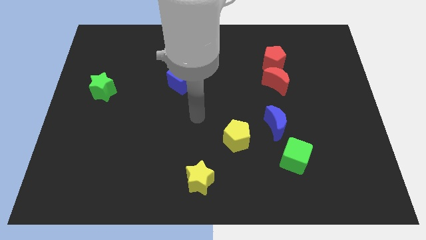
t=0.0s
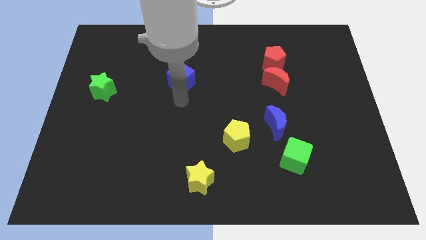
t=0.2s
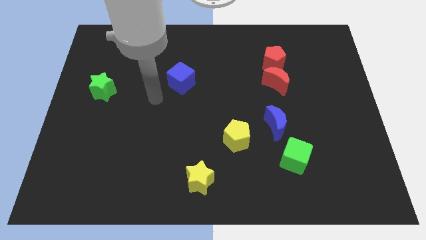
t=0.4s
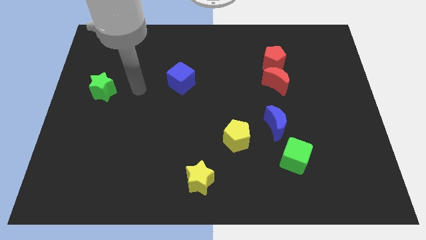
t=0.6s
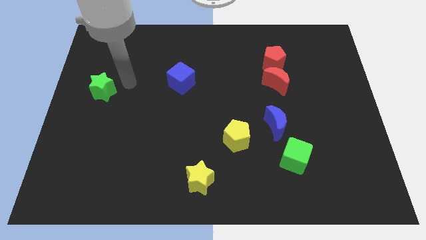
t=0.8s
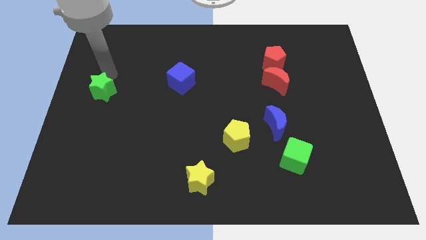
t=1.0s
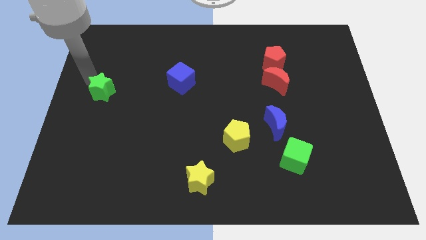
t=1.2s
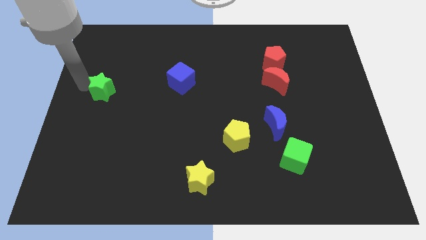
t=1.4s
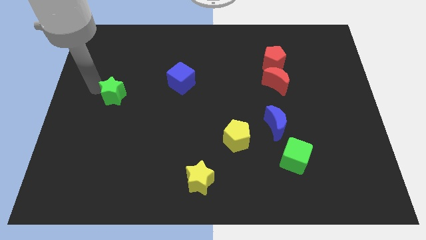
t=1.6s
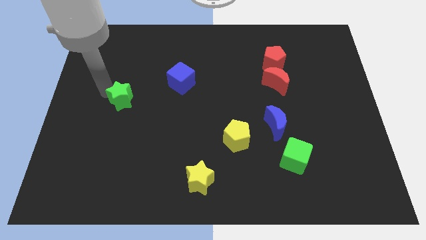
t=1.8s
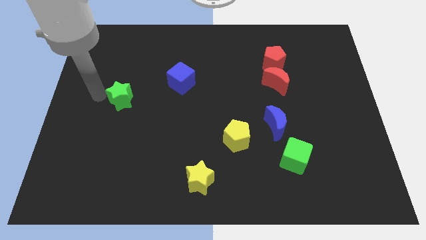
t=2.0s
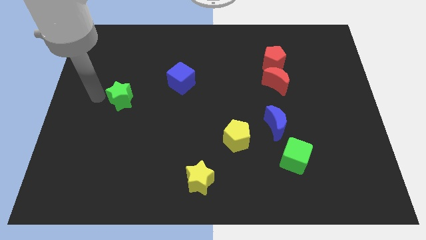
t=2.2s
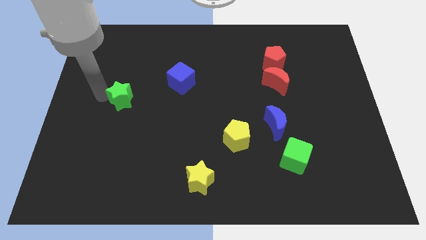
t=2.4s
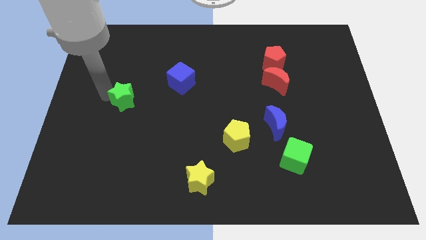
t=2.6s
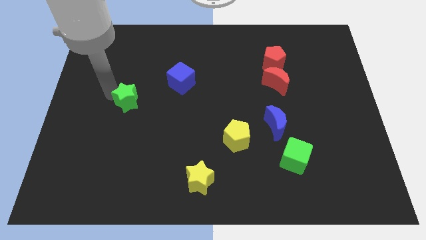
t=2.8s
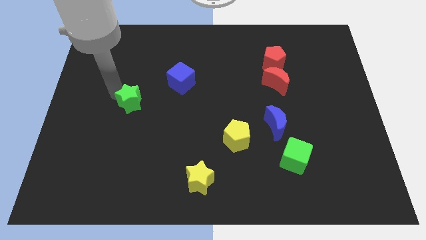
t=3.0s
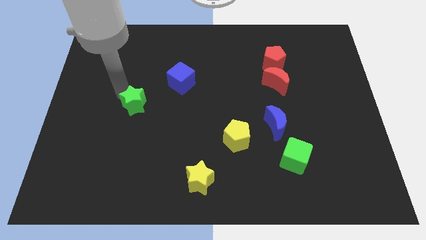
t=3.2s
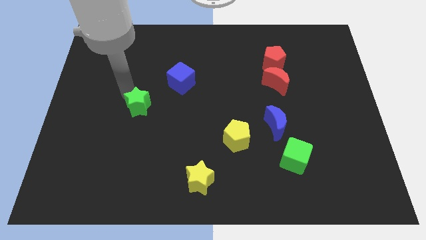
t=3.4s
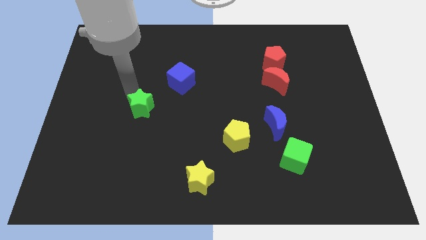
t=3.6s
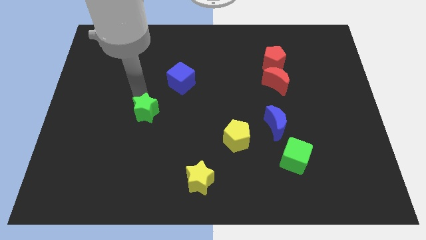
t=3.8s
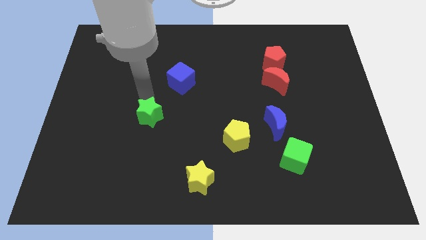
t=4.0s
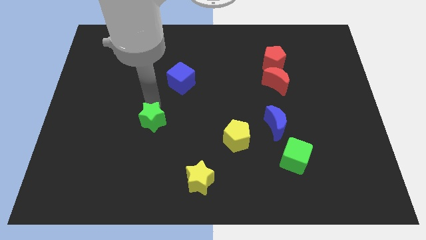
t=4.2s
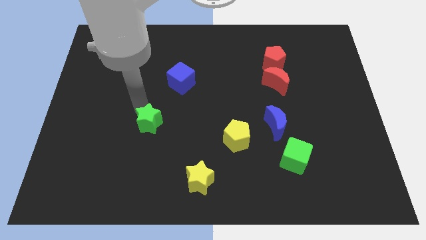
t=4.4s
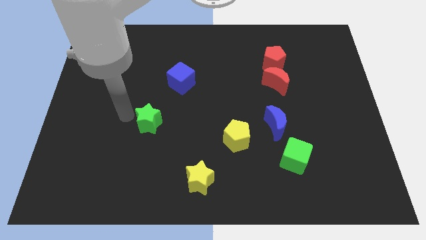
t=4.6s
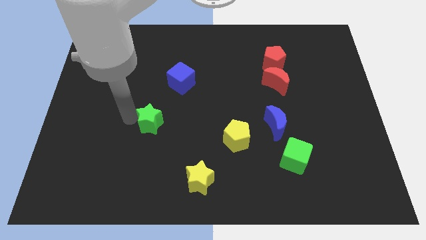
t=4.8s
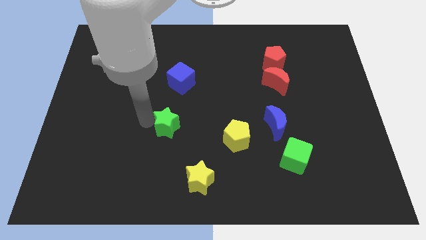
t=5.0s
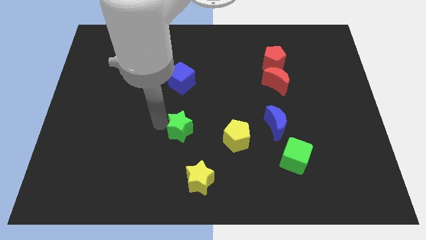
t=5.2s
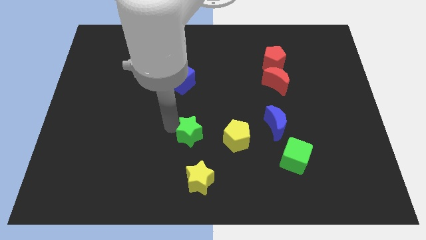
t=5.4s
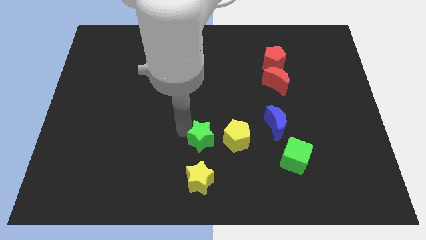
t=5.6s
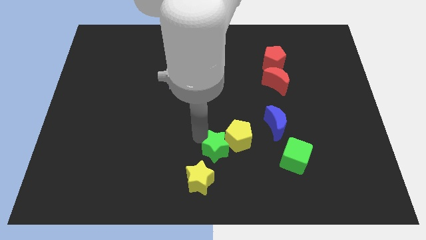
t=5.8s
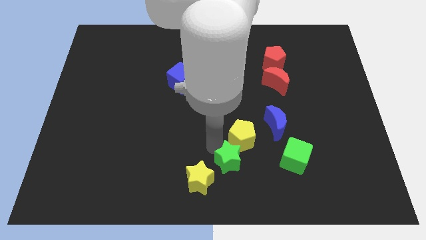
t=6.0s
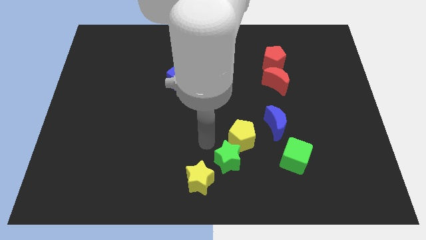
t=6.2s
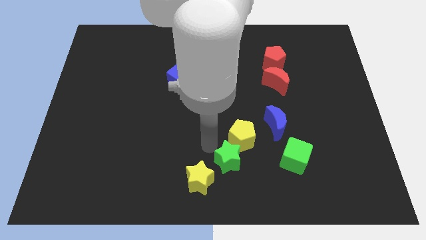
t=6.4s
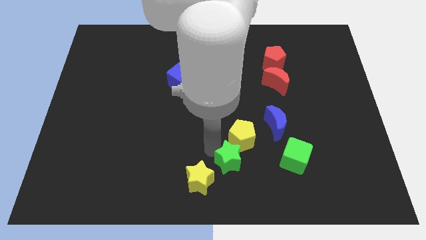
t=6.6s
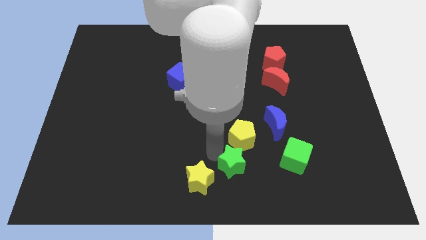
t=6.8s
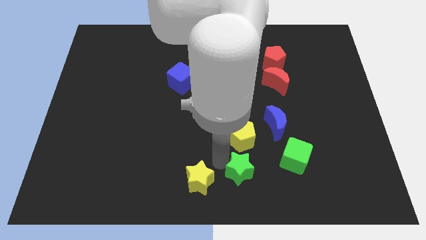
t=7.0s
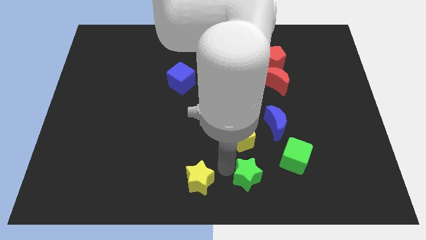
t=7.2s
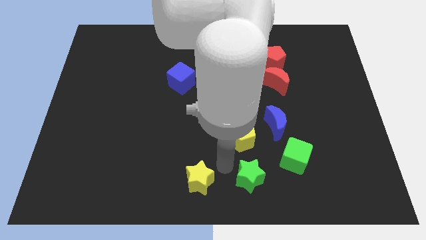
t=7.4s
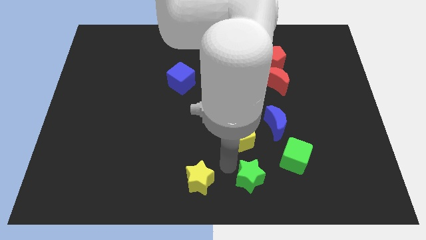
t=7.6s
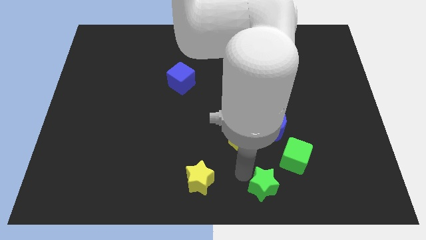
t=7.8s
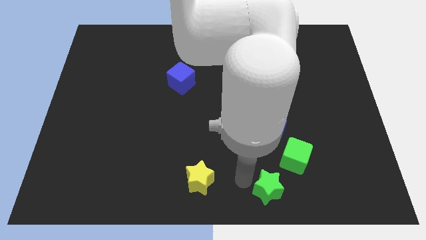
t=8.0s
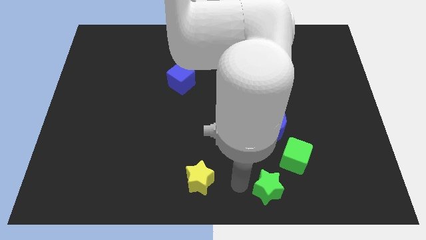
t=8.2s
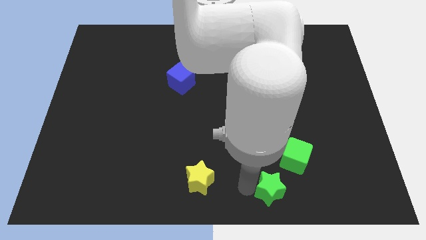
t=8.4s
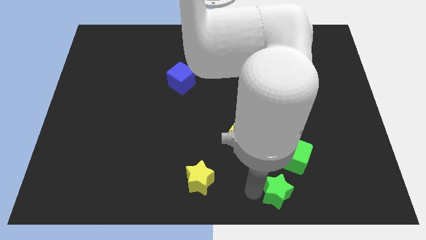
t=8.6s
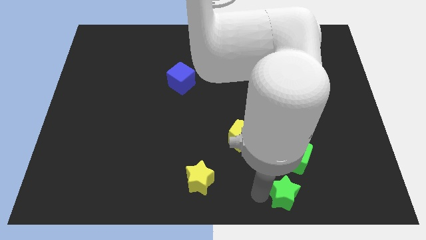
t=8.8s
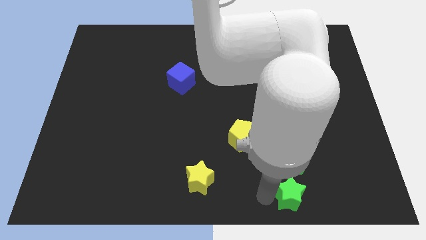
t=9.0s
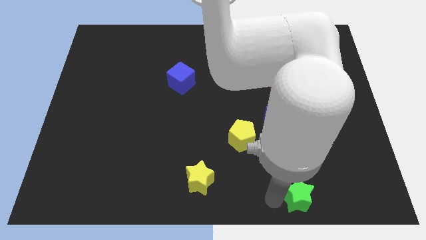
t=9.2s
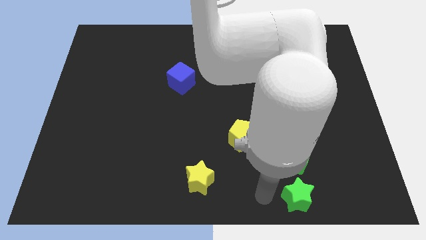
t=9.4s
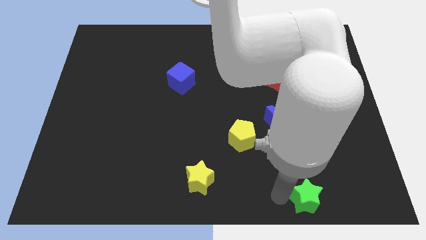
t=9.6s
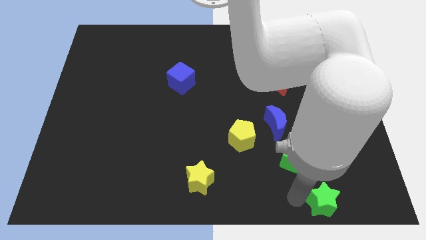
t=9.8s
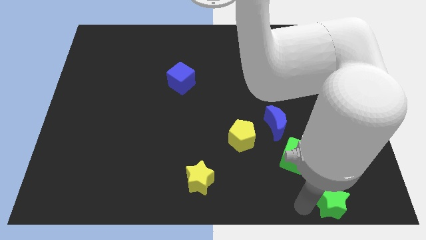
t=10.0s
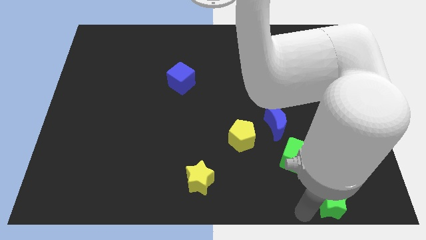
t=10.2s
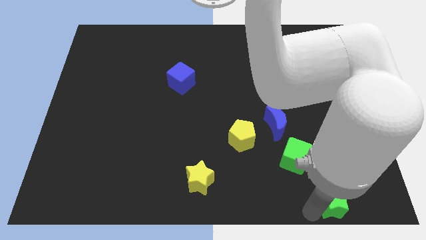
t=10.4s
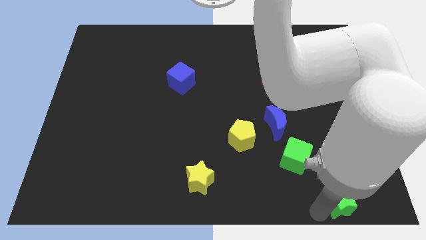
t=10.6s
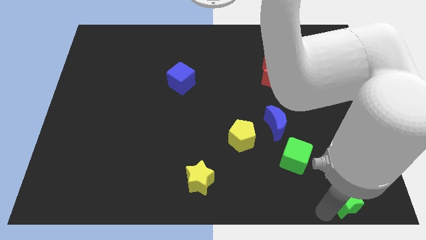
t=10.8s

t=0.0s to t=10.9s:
move the green star to the lower right corner

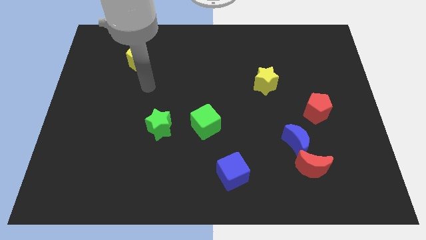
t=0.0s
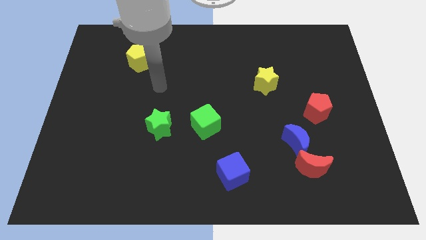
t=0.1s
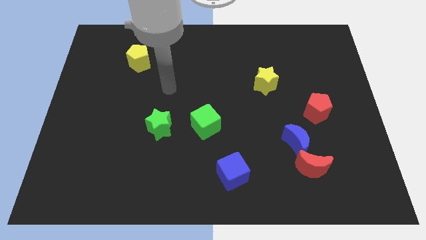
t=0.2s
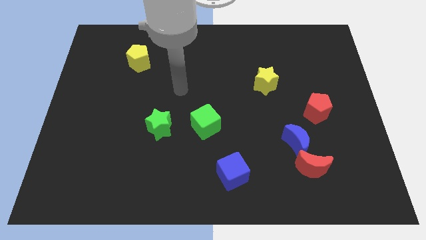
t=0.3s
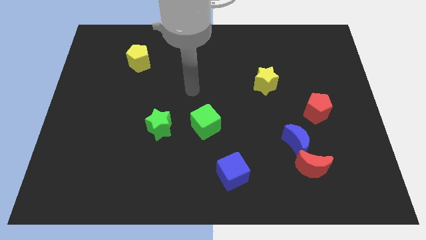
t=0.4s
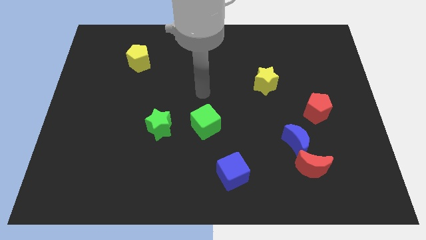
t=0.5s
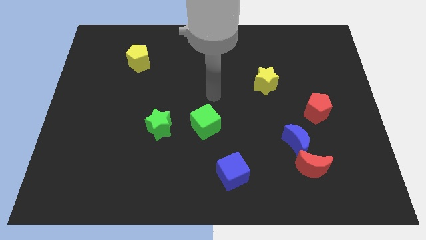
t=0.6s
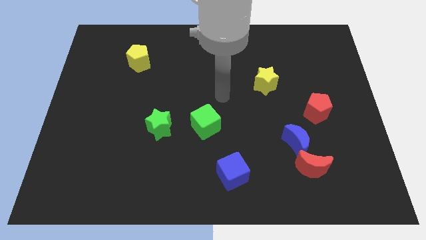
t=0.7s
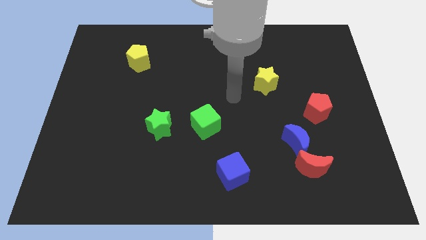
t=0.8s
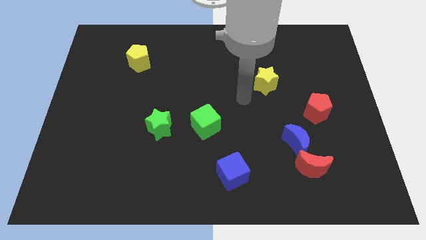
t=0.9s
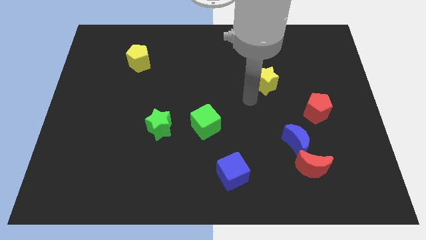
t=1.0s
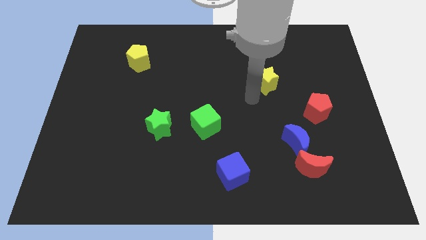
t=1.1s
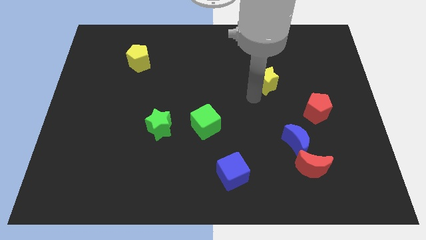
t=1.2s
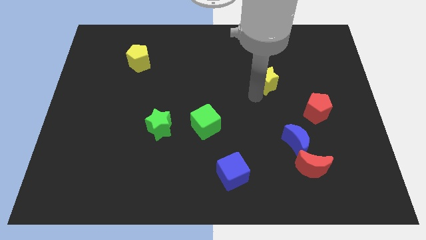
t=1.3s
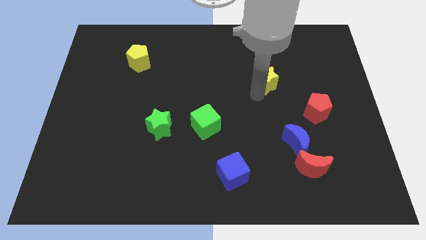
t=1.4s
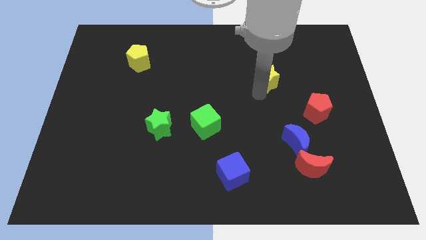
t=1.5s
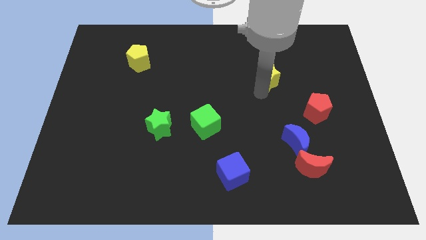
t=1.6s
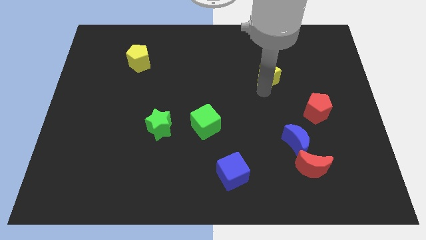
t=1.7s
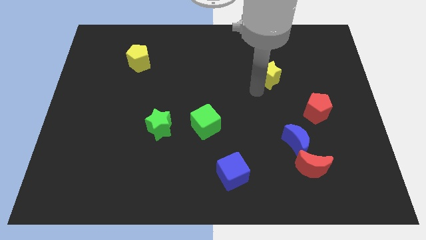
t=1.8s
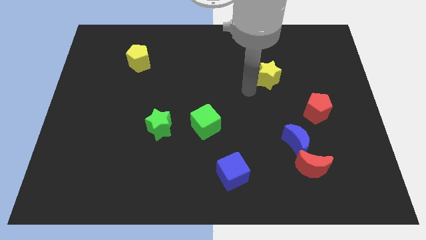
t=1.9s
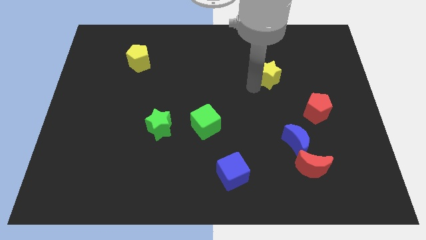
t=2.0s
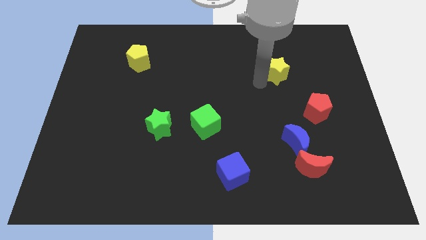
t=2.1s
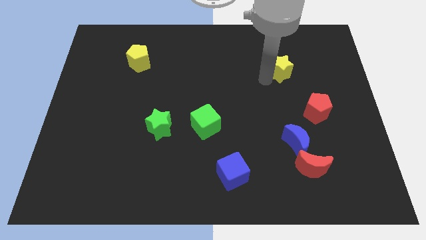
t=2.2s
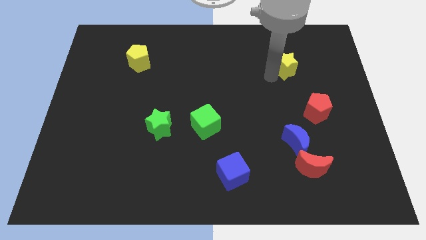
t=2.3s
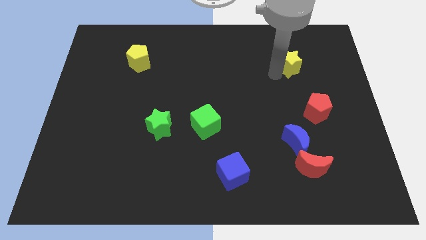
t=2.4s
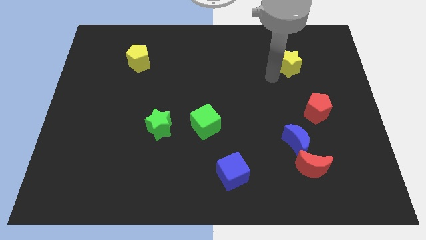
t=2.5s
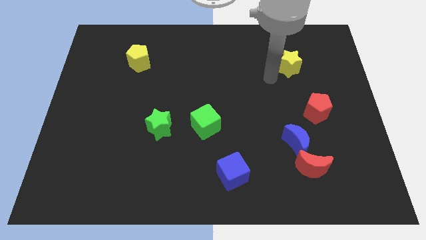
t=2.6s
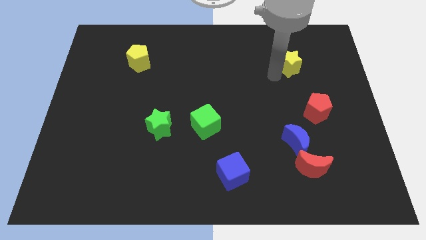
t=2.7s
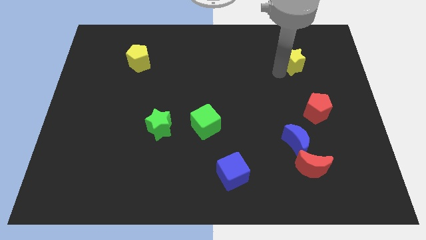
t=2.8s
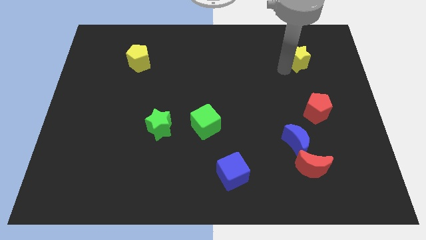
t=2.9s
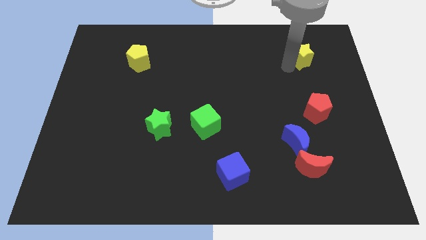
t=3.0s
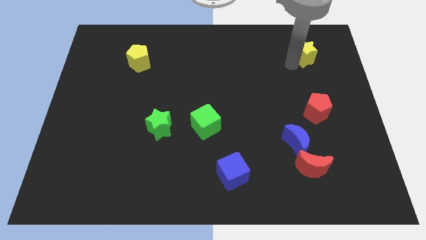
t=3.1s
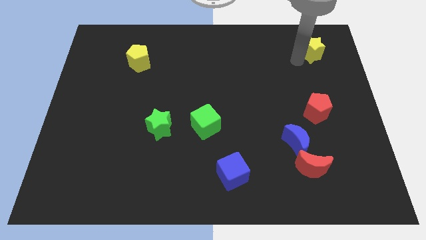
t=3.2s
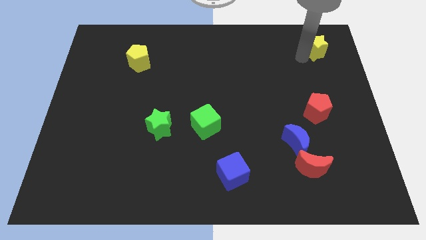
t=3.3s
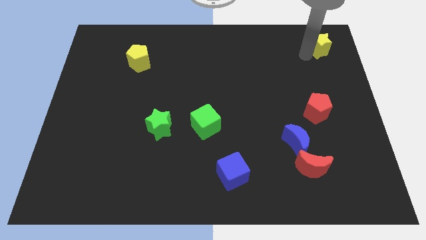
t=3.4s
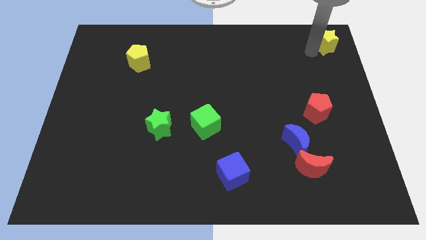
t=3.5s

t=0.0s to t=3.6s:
put the yellow star to the upper right corner
